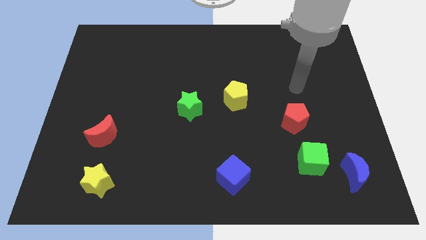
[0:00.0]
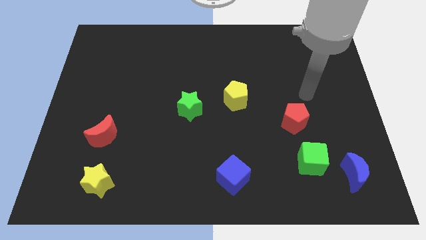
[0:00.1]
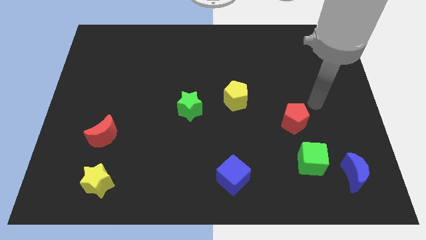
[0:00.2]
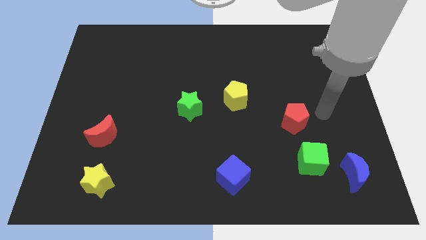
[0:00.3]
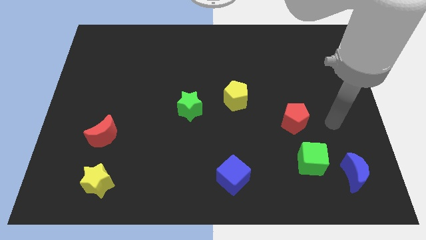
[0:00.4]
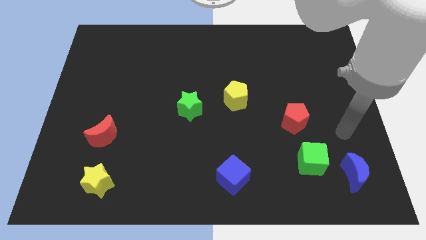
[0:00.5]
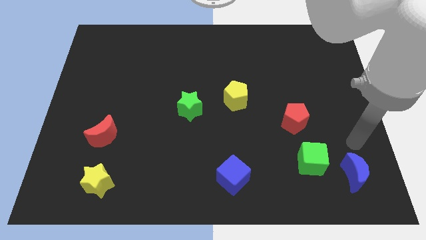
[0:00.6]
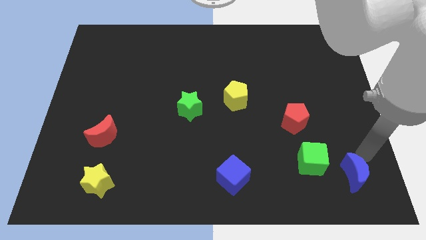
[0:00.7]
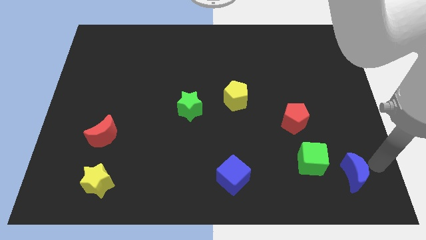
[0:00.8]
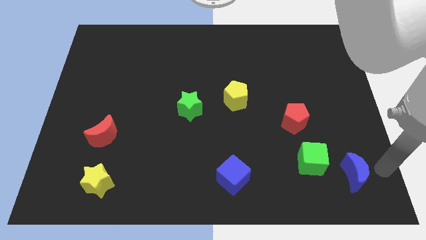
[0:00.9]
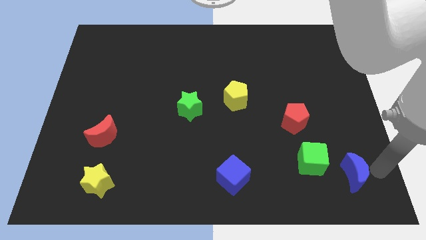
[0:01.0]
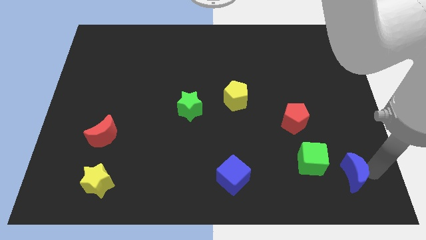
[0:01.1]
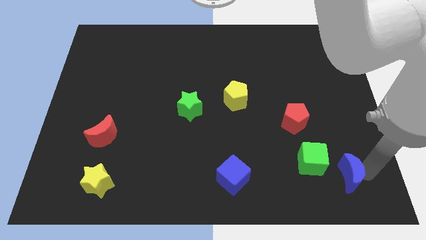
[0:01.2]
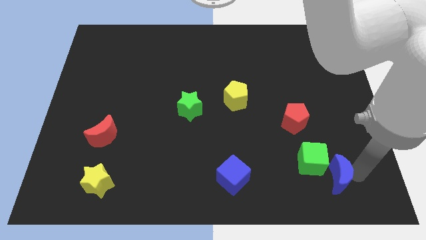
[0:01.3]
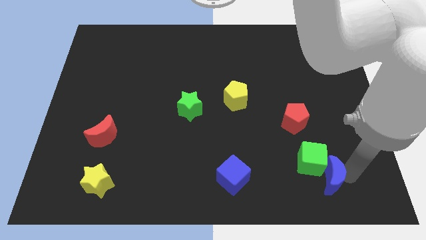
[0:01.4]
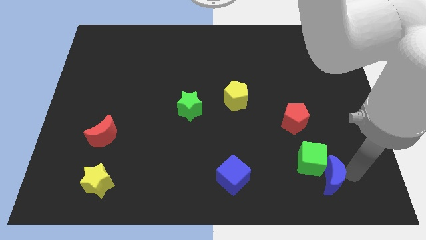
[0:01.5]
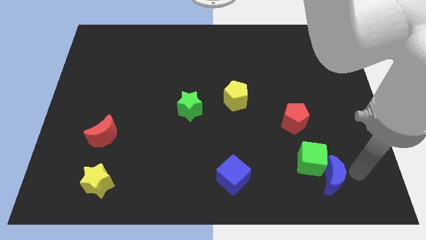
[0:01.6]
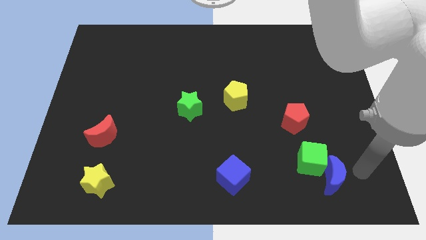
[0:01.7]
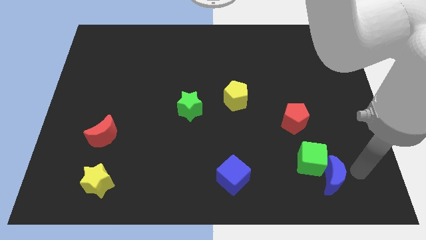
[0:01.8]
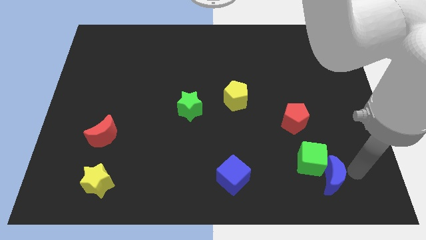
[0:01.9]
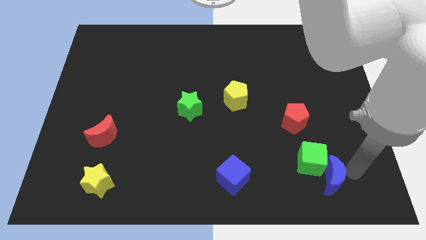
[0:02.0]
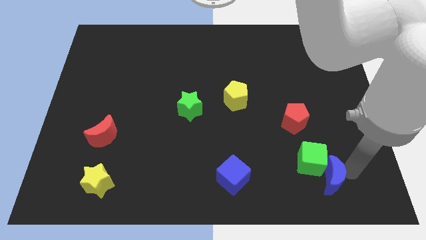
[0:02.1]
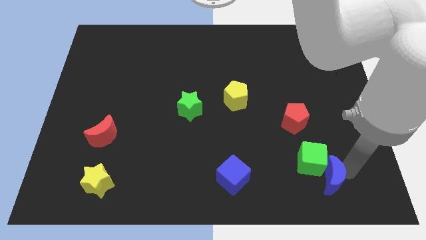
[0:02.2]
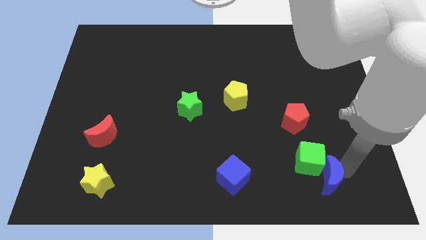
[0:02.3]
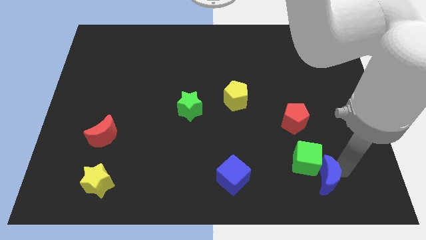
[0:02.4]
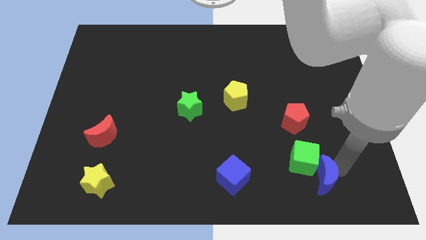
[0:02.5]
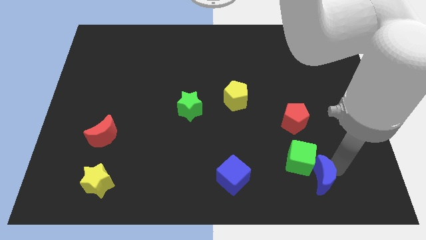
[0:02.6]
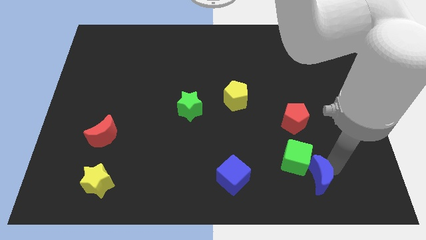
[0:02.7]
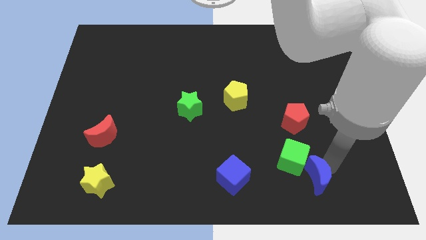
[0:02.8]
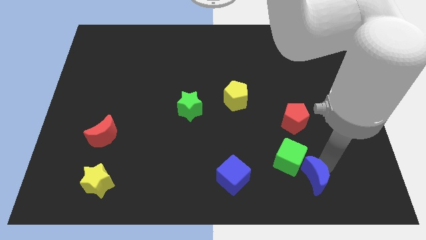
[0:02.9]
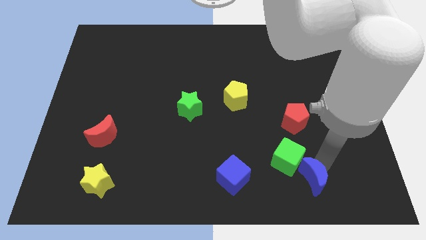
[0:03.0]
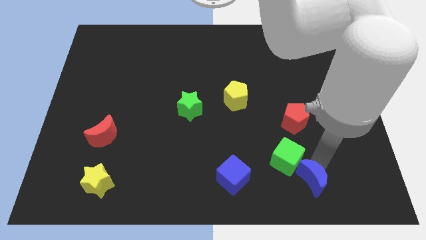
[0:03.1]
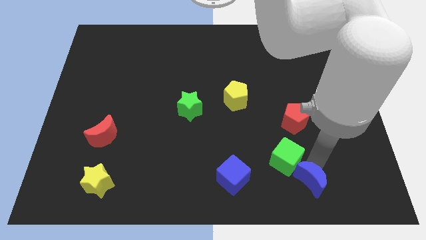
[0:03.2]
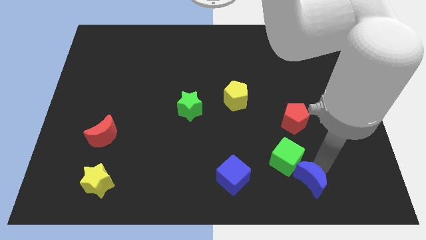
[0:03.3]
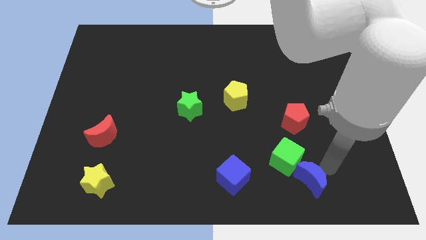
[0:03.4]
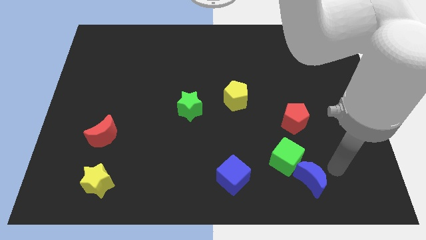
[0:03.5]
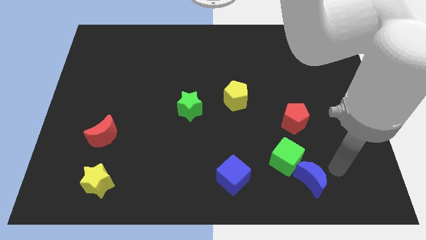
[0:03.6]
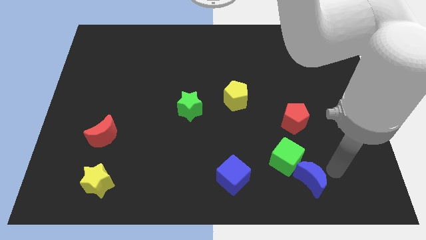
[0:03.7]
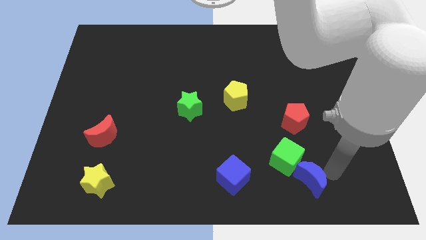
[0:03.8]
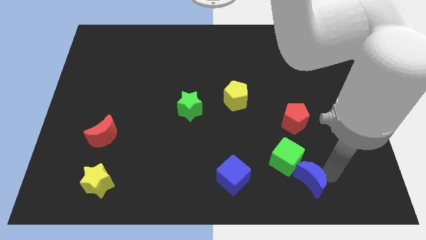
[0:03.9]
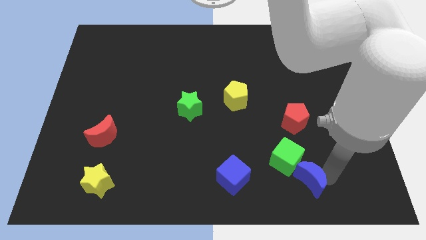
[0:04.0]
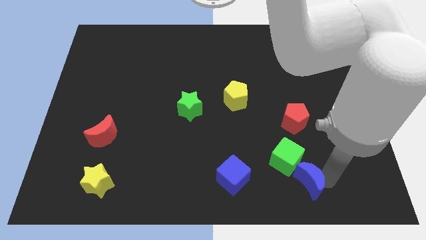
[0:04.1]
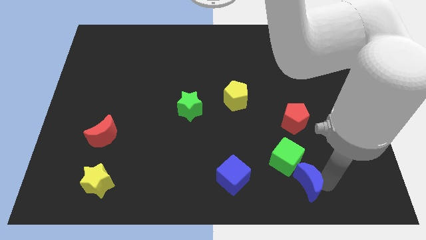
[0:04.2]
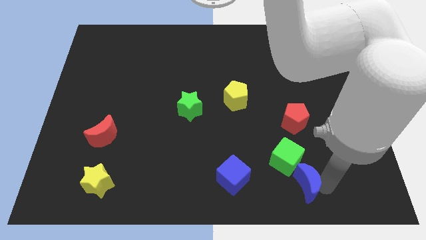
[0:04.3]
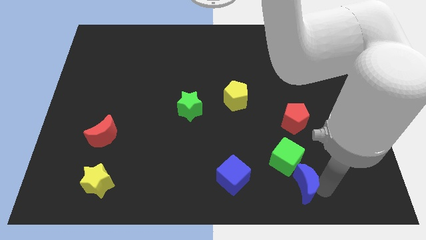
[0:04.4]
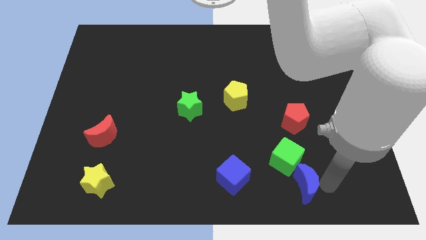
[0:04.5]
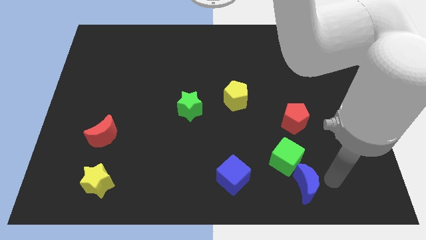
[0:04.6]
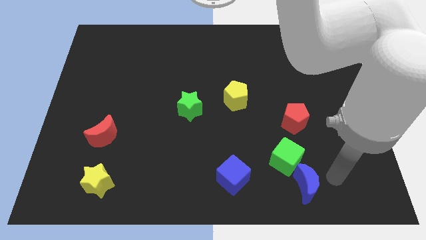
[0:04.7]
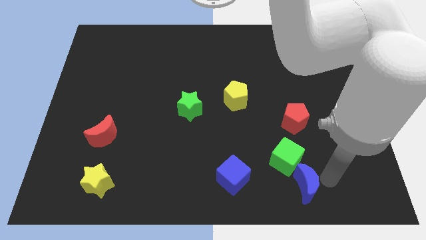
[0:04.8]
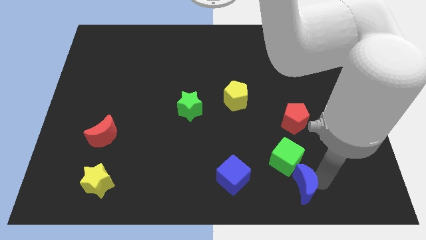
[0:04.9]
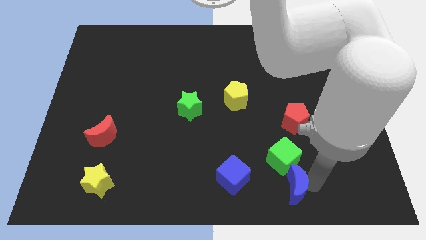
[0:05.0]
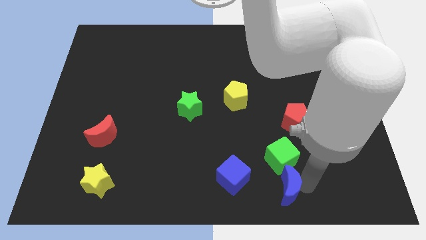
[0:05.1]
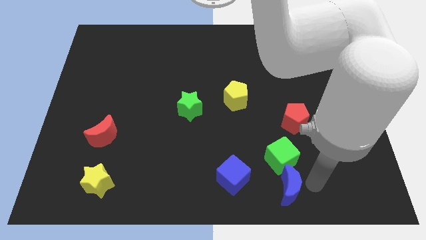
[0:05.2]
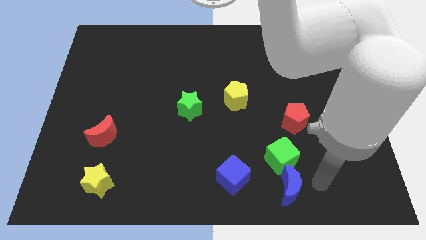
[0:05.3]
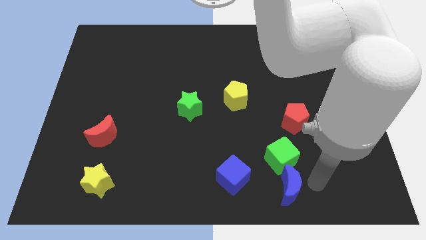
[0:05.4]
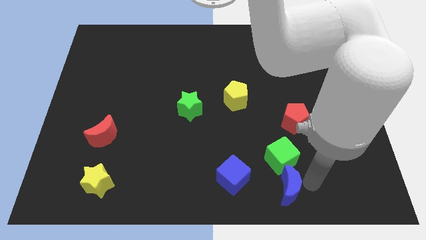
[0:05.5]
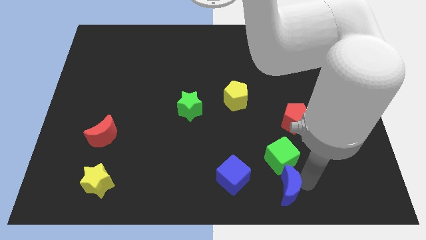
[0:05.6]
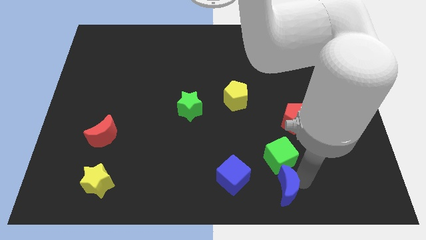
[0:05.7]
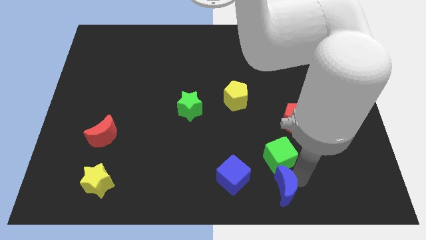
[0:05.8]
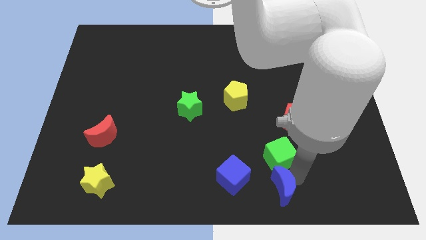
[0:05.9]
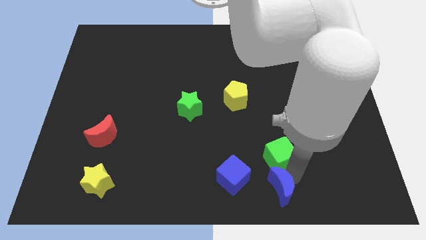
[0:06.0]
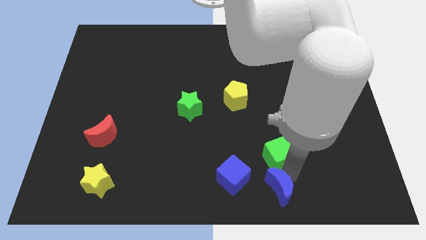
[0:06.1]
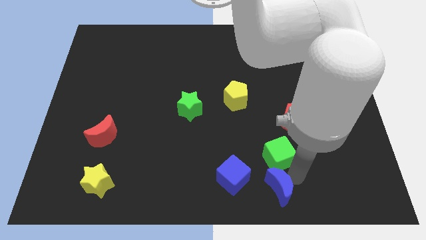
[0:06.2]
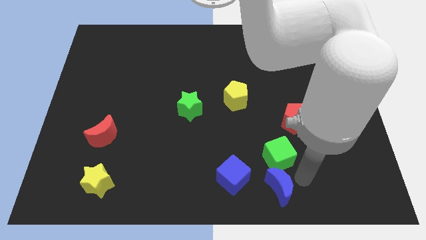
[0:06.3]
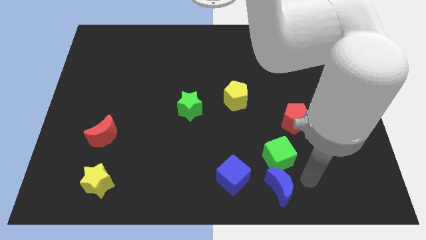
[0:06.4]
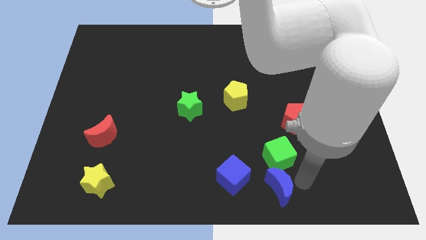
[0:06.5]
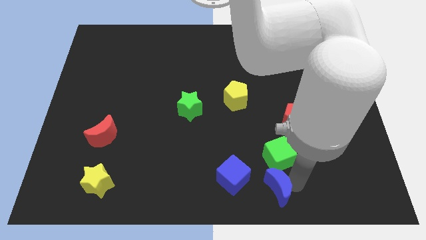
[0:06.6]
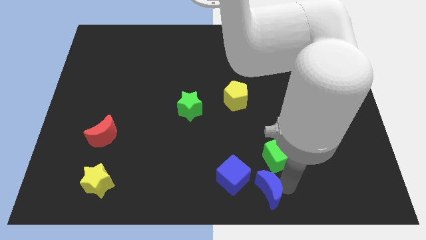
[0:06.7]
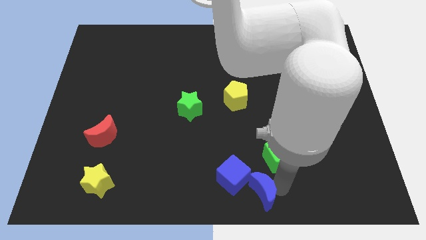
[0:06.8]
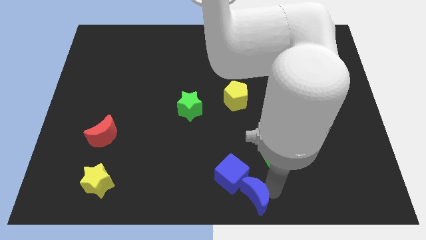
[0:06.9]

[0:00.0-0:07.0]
slide the blue moon to the left

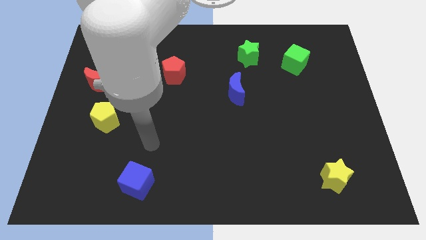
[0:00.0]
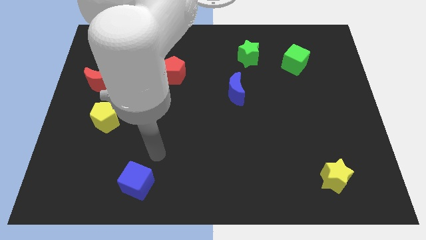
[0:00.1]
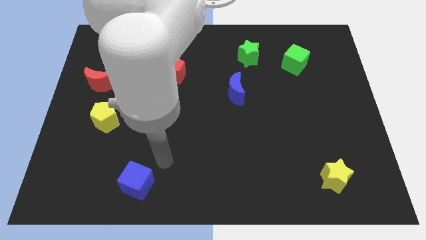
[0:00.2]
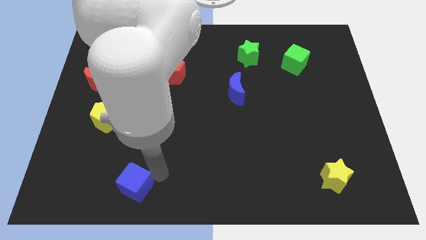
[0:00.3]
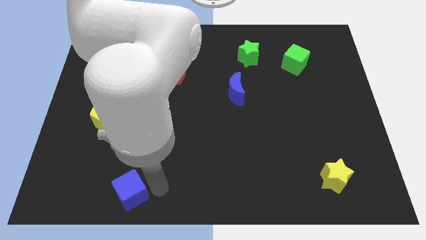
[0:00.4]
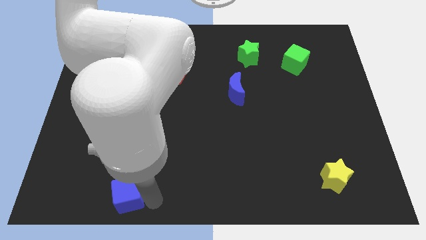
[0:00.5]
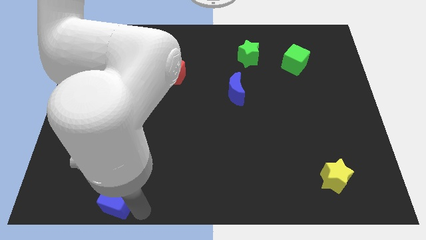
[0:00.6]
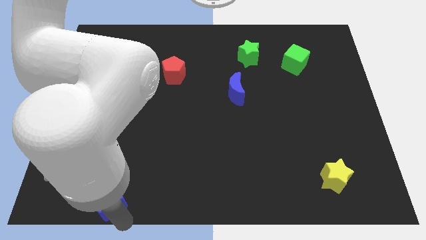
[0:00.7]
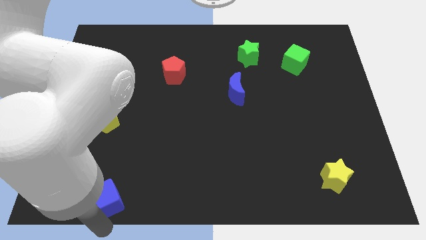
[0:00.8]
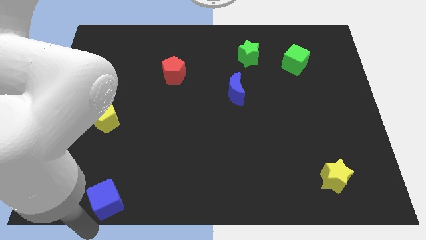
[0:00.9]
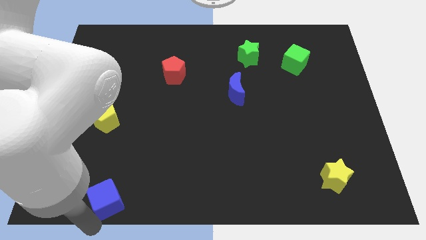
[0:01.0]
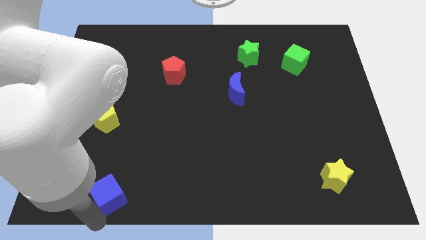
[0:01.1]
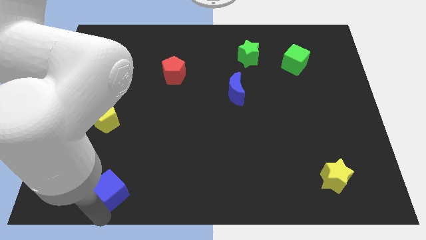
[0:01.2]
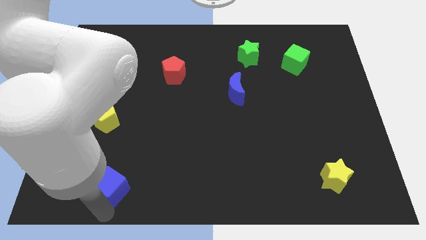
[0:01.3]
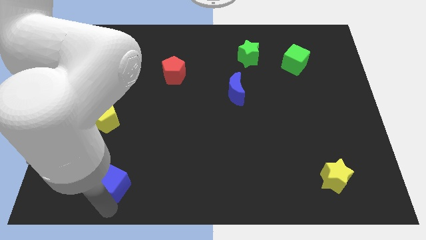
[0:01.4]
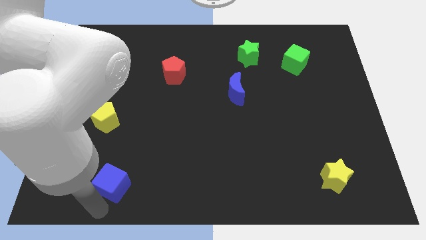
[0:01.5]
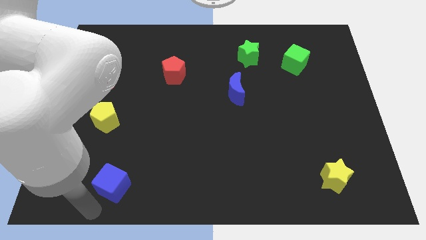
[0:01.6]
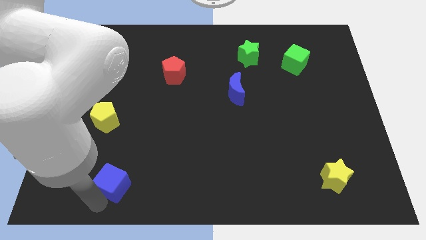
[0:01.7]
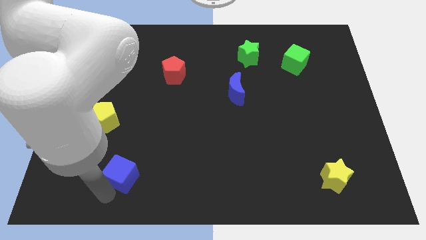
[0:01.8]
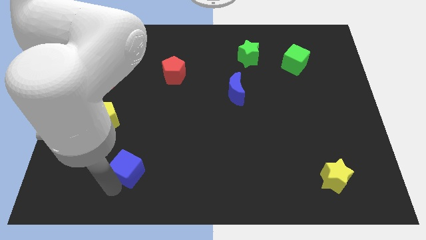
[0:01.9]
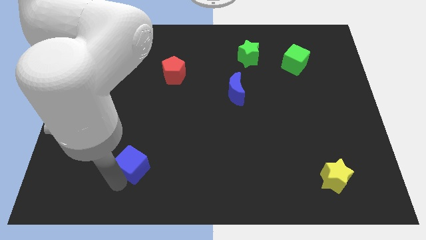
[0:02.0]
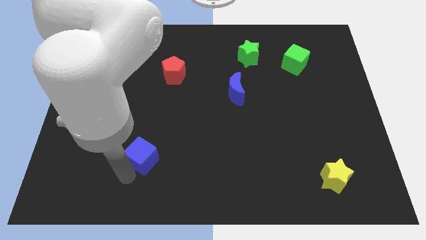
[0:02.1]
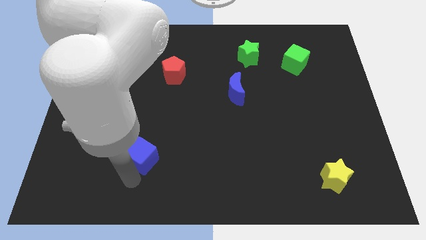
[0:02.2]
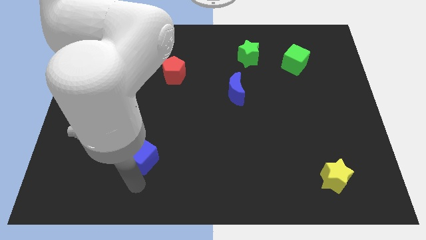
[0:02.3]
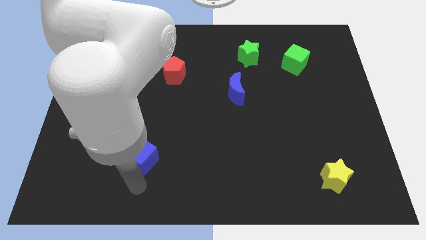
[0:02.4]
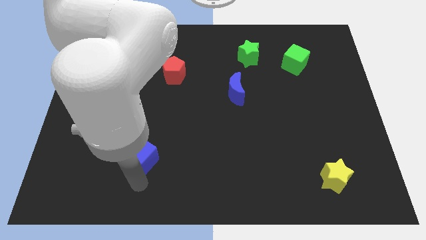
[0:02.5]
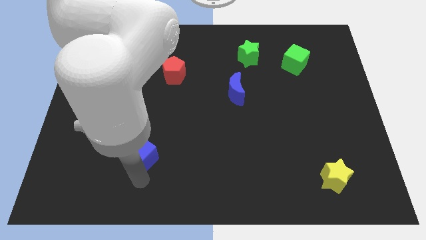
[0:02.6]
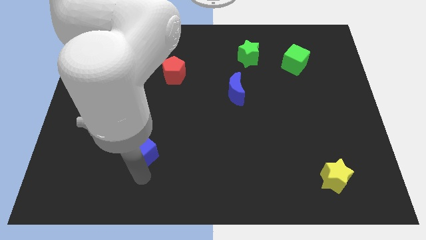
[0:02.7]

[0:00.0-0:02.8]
push the blue cube slightly up
